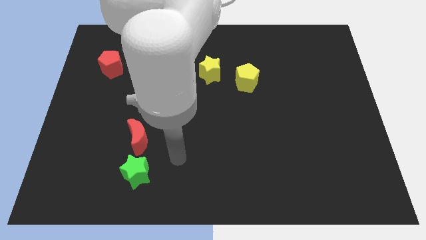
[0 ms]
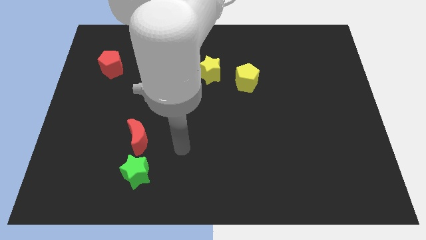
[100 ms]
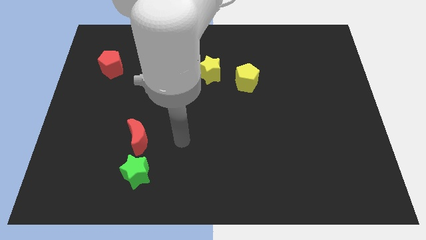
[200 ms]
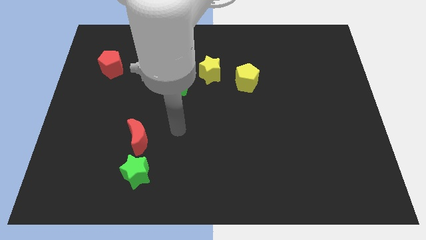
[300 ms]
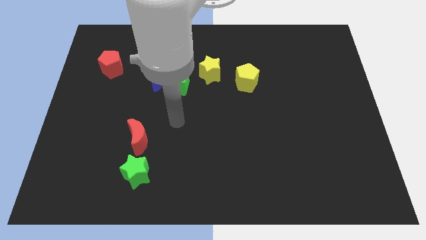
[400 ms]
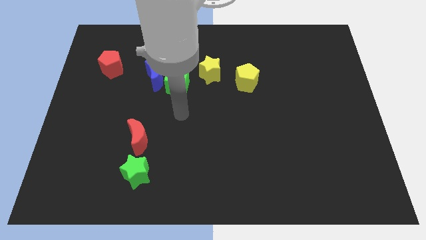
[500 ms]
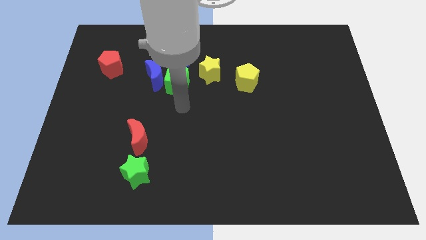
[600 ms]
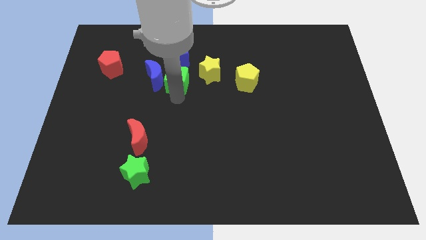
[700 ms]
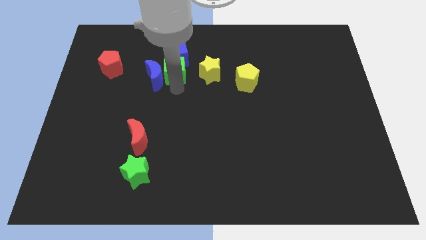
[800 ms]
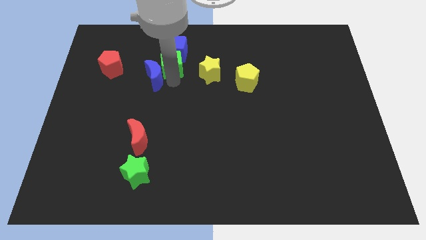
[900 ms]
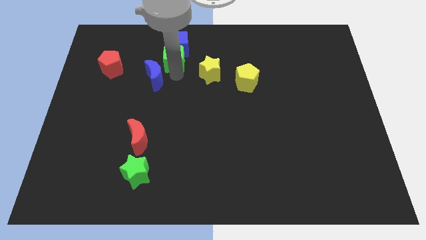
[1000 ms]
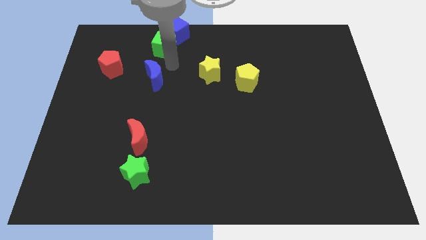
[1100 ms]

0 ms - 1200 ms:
separate the blue moon from the green cube and blue cube

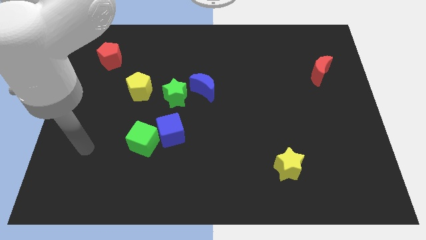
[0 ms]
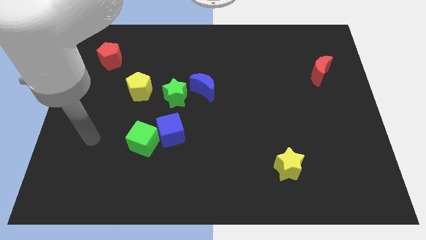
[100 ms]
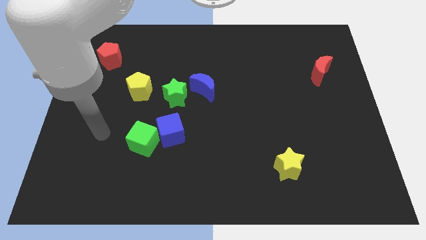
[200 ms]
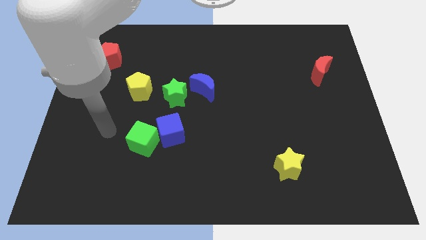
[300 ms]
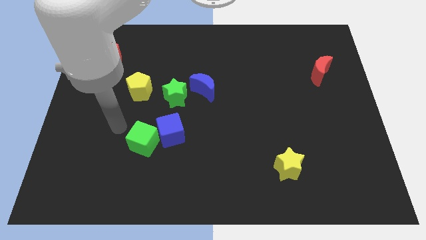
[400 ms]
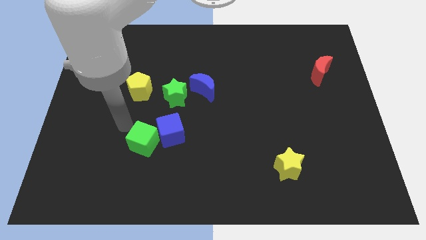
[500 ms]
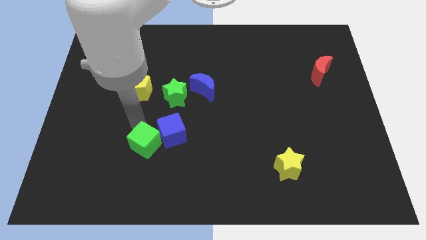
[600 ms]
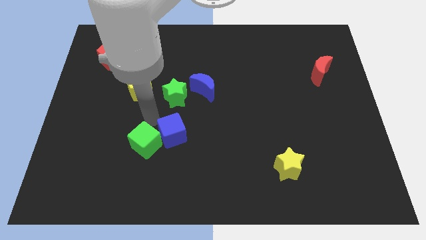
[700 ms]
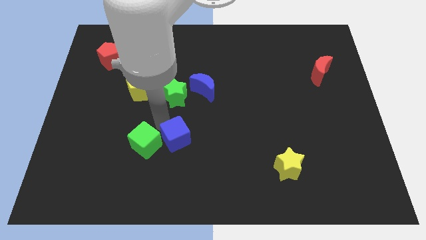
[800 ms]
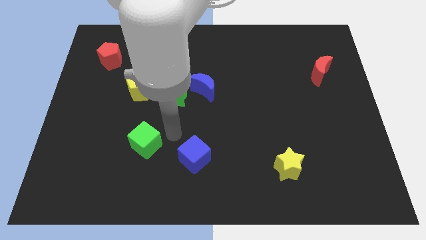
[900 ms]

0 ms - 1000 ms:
separate the green cube from the blue cube

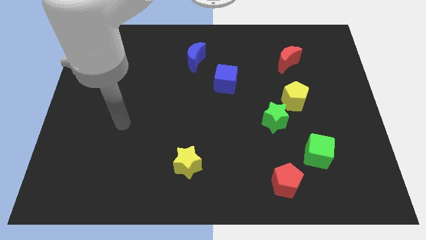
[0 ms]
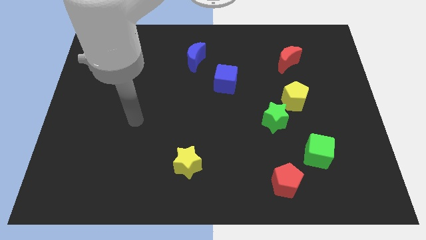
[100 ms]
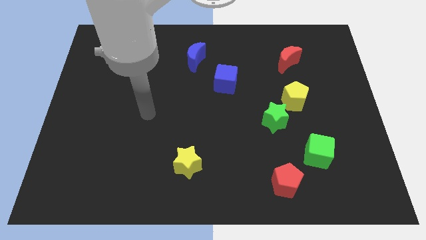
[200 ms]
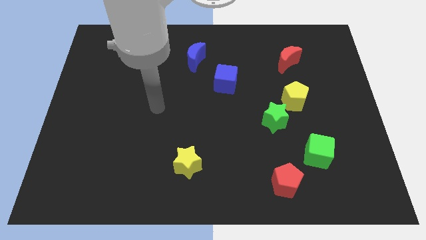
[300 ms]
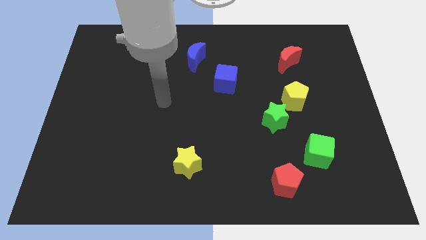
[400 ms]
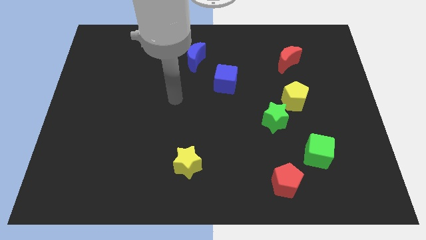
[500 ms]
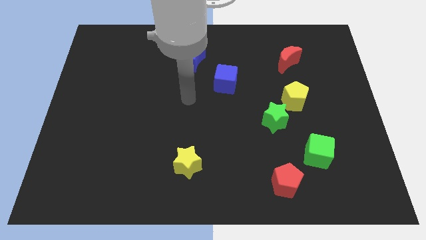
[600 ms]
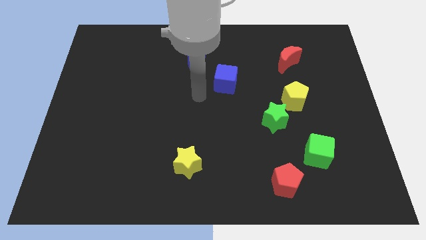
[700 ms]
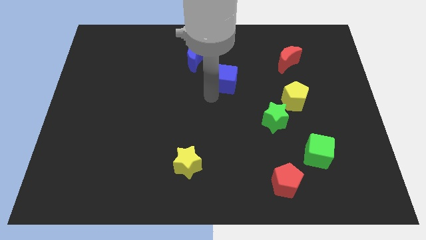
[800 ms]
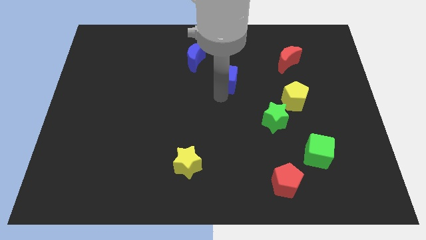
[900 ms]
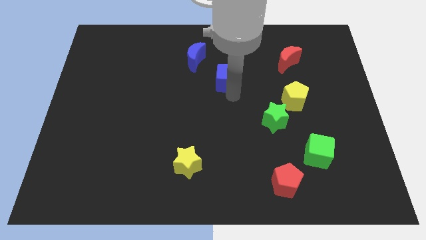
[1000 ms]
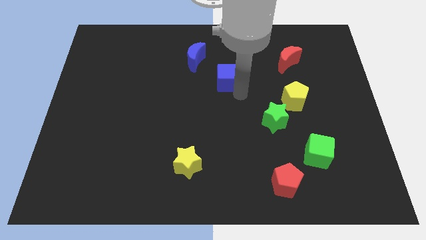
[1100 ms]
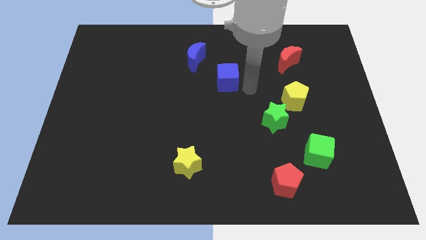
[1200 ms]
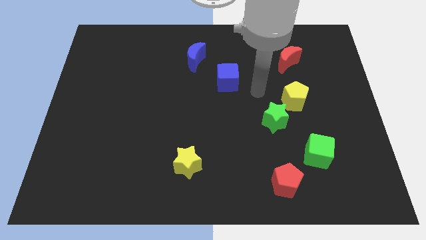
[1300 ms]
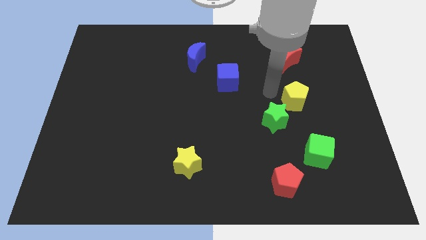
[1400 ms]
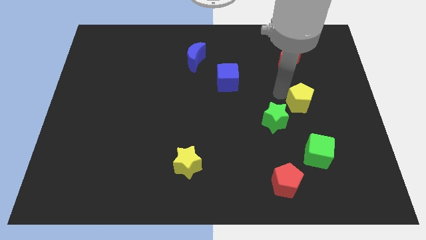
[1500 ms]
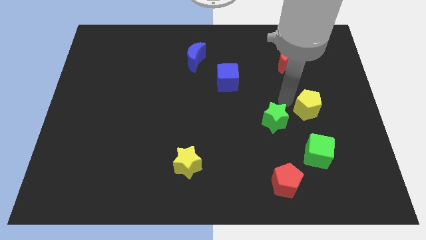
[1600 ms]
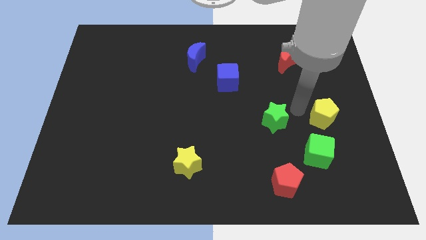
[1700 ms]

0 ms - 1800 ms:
pull the green star apart from the yellow pentagon

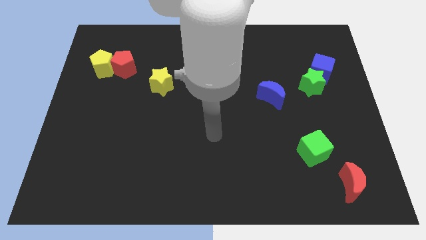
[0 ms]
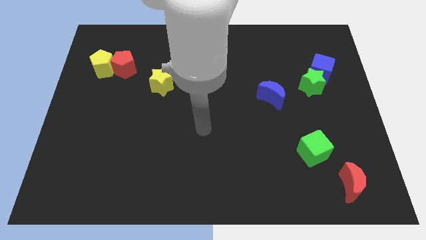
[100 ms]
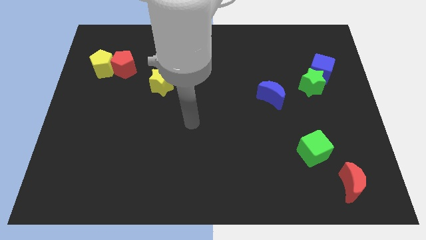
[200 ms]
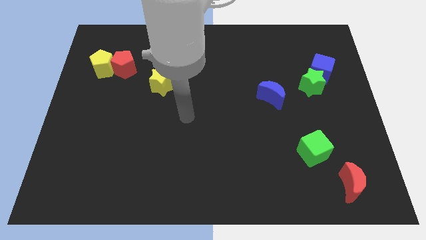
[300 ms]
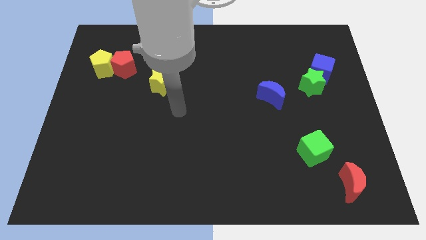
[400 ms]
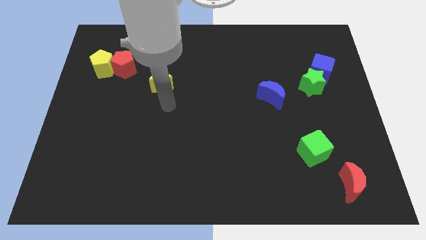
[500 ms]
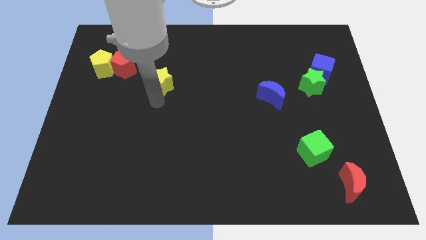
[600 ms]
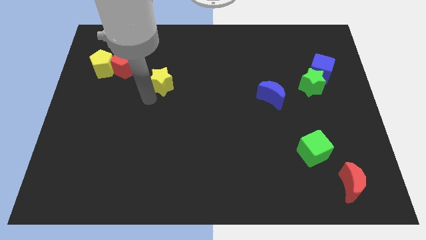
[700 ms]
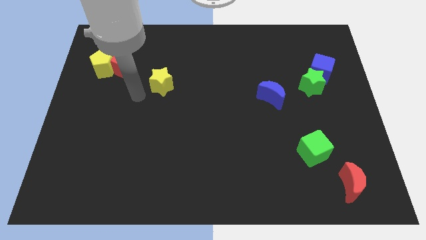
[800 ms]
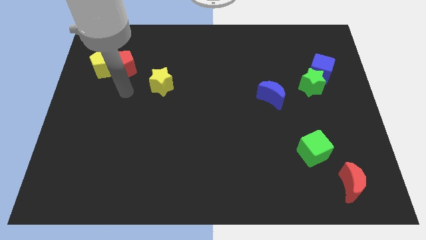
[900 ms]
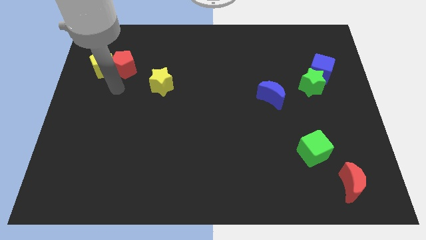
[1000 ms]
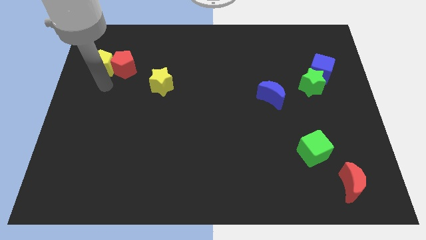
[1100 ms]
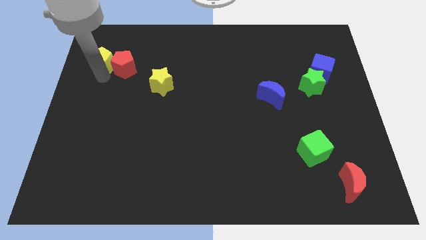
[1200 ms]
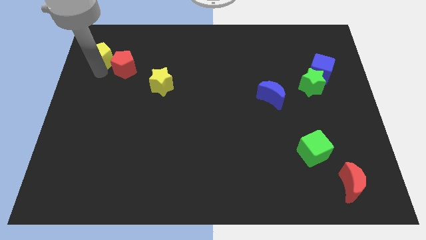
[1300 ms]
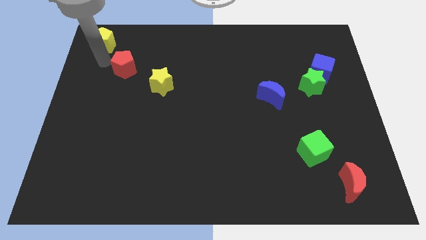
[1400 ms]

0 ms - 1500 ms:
pull the red pentagon apart from the yellow pentagon

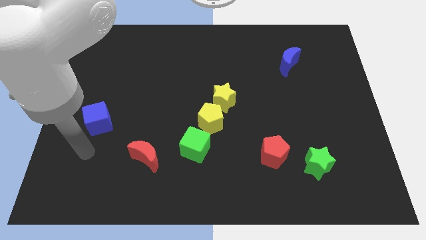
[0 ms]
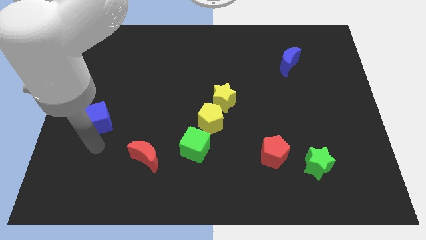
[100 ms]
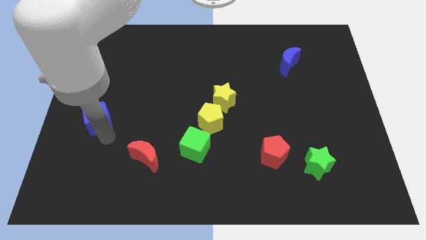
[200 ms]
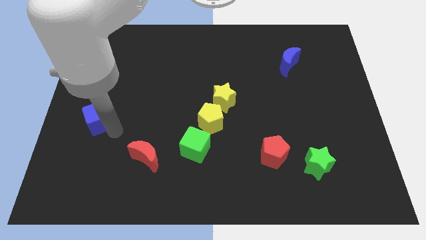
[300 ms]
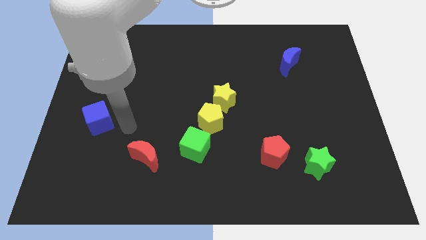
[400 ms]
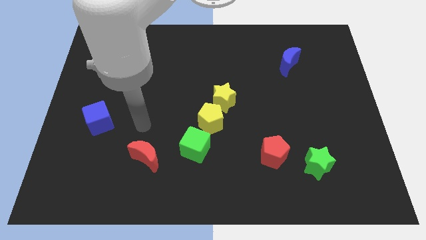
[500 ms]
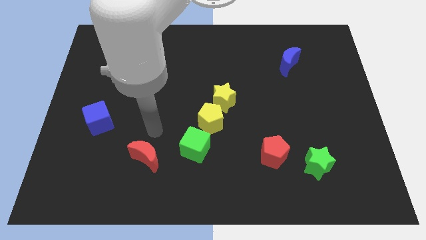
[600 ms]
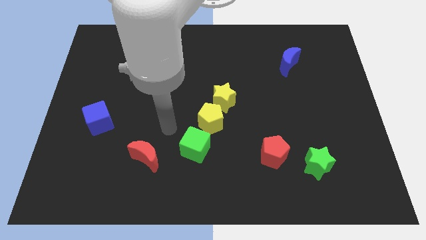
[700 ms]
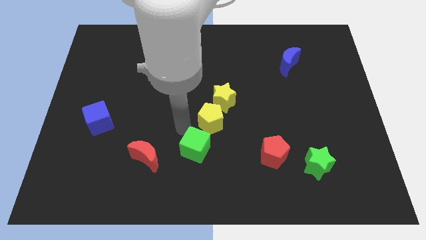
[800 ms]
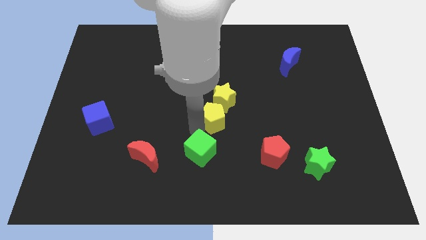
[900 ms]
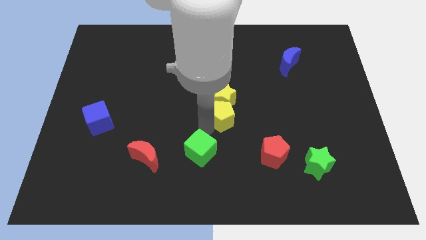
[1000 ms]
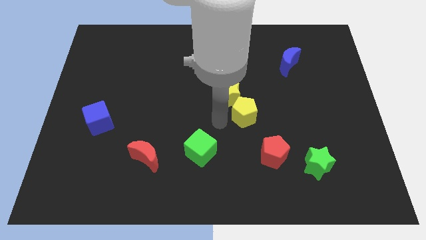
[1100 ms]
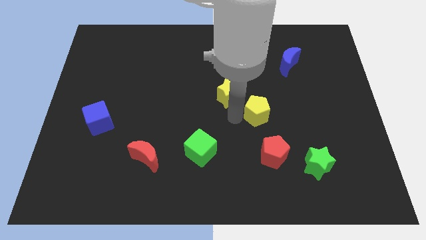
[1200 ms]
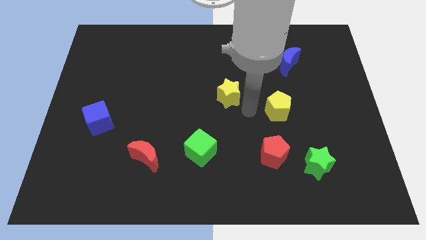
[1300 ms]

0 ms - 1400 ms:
pull the yellow star apart from the yellow pentagon

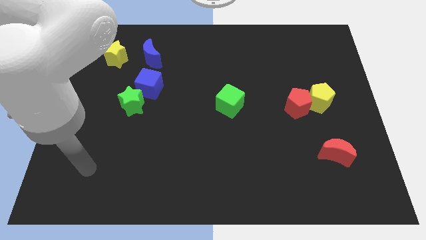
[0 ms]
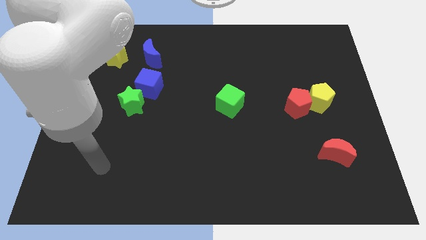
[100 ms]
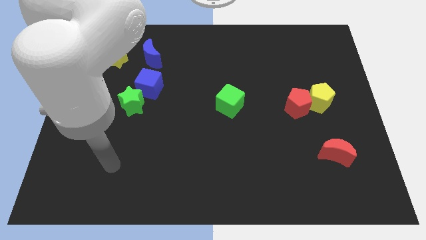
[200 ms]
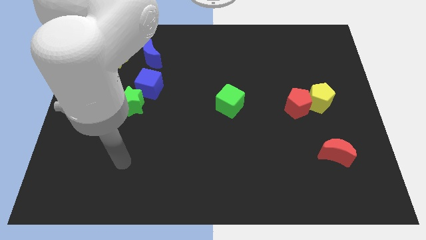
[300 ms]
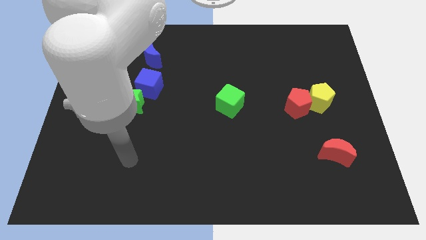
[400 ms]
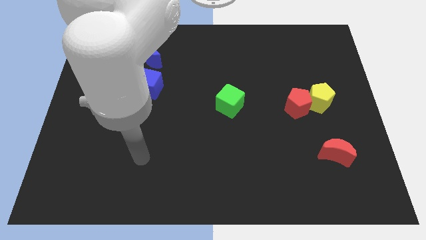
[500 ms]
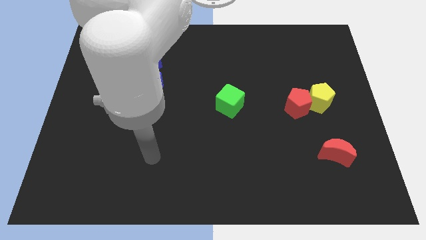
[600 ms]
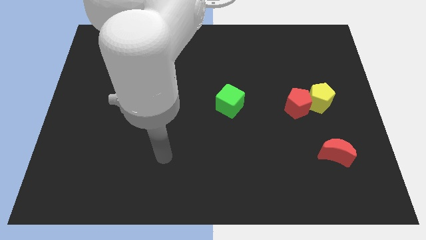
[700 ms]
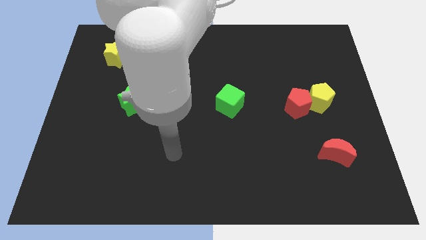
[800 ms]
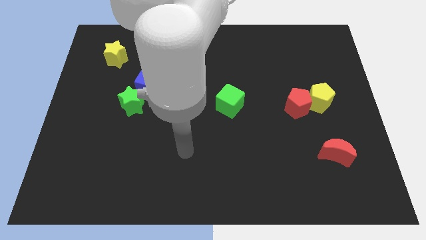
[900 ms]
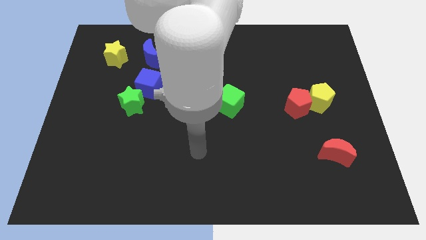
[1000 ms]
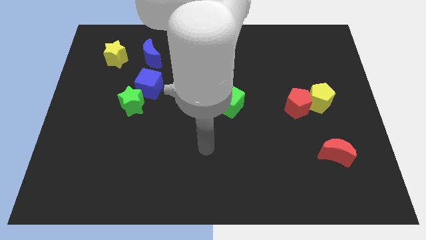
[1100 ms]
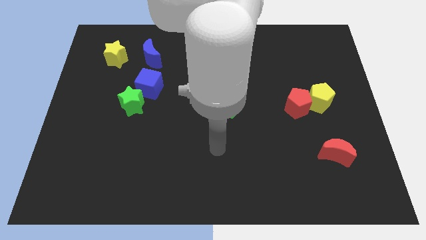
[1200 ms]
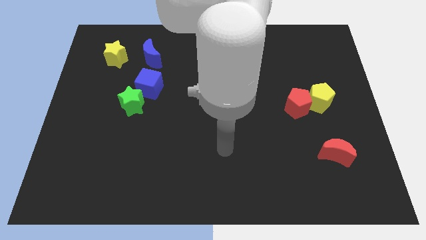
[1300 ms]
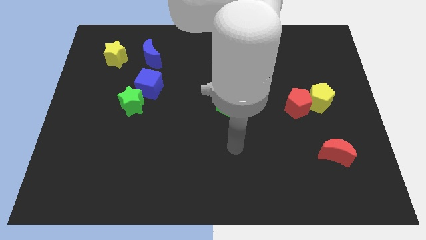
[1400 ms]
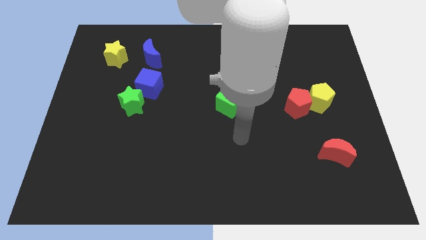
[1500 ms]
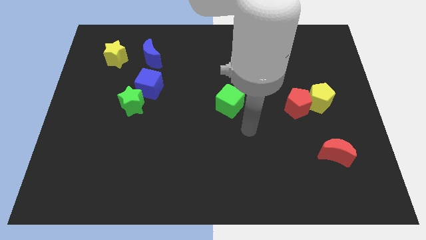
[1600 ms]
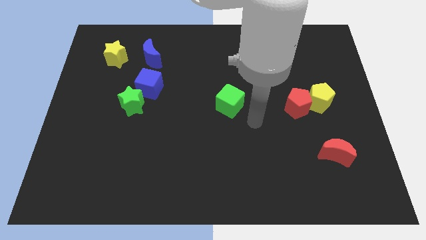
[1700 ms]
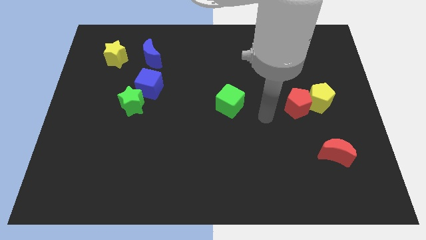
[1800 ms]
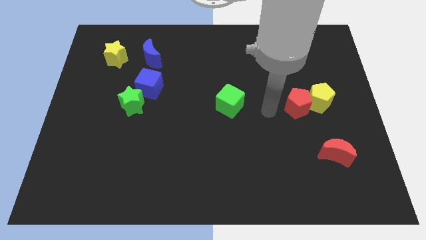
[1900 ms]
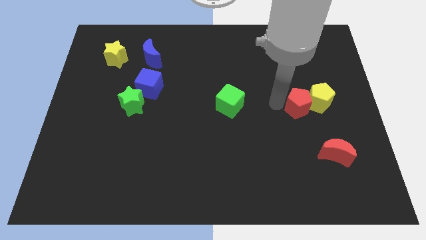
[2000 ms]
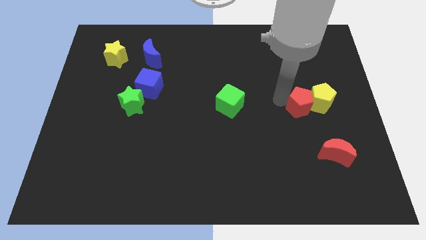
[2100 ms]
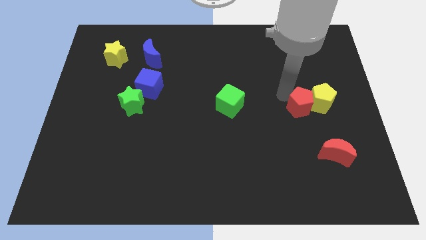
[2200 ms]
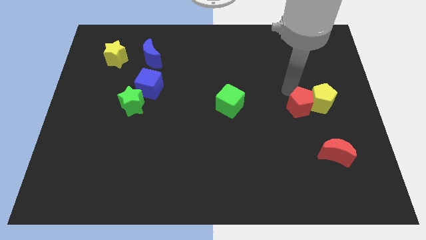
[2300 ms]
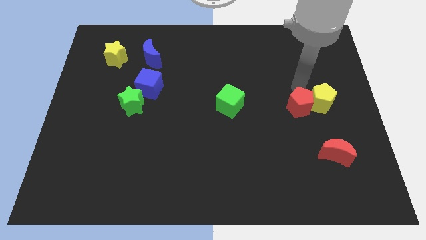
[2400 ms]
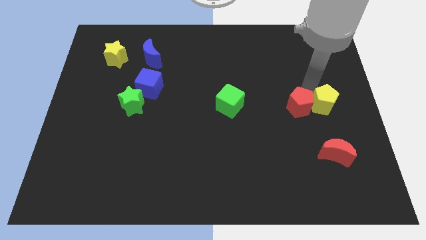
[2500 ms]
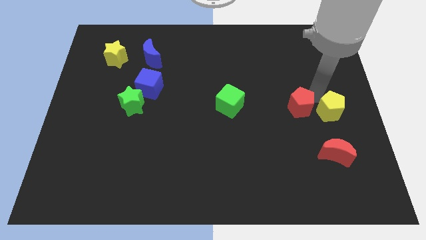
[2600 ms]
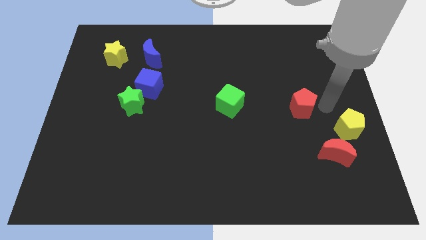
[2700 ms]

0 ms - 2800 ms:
separate the red pentagon from the yellow pentagon
